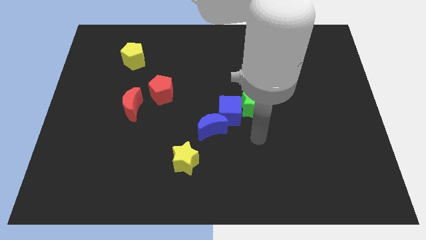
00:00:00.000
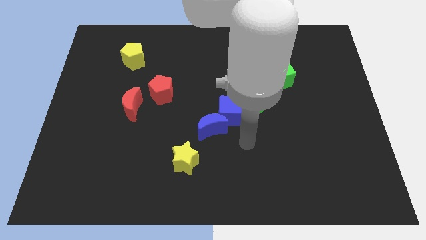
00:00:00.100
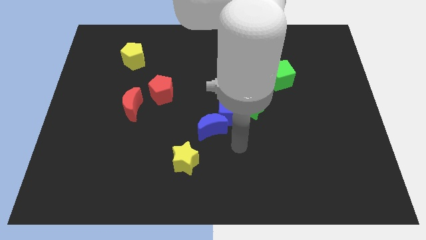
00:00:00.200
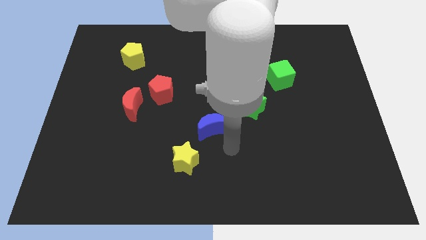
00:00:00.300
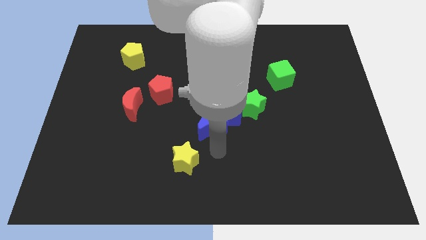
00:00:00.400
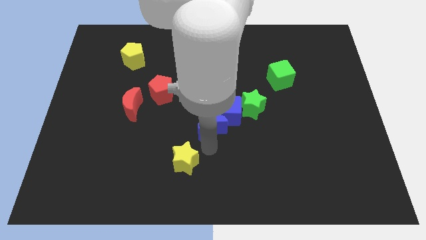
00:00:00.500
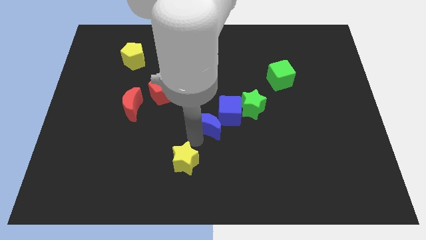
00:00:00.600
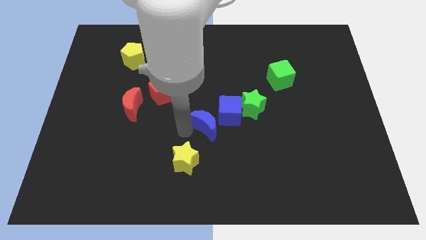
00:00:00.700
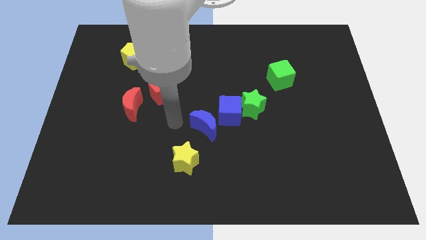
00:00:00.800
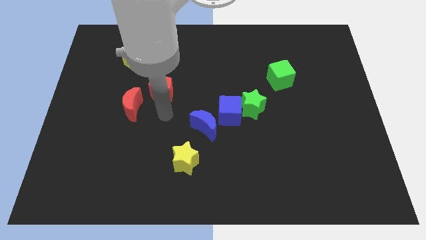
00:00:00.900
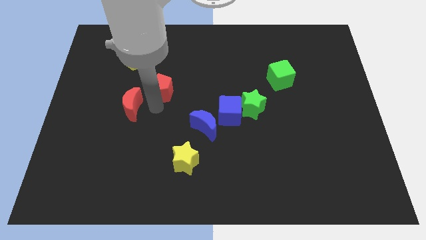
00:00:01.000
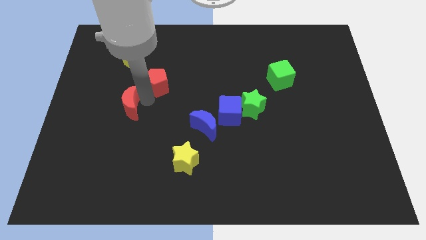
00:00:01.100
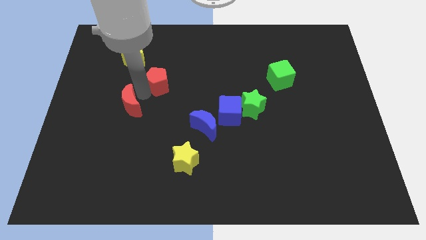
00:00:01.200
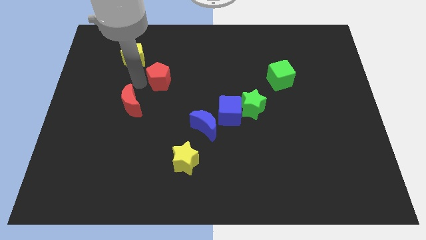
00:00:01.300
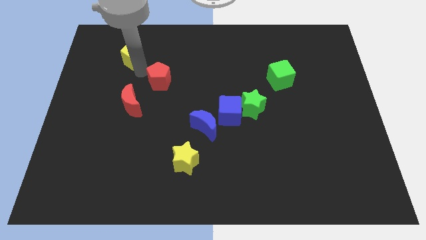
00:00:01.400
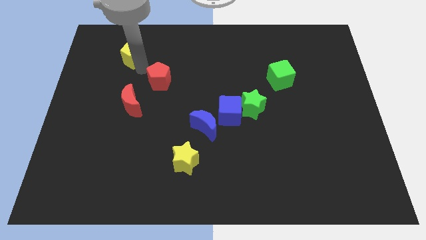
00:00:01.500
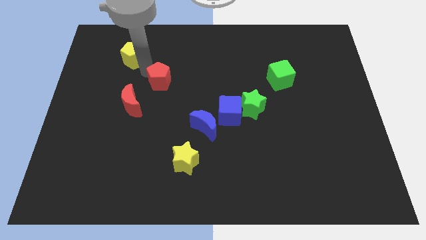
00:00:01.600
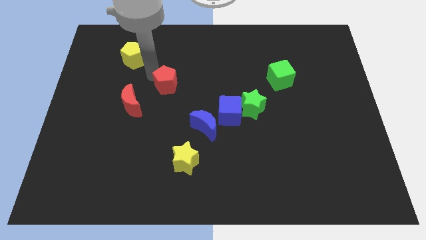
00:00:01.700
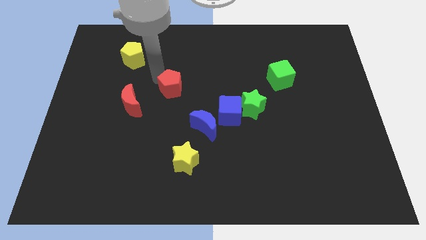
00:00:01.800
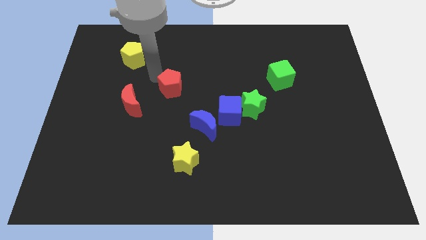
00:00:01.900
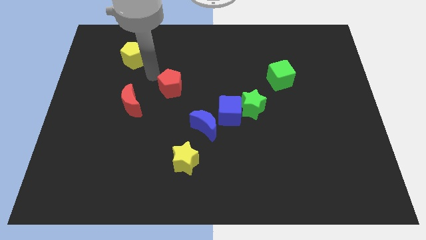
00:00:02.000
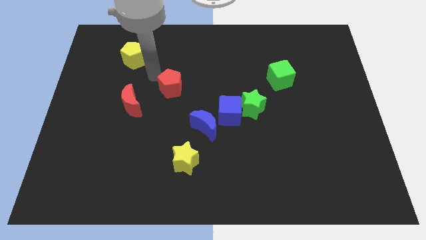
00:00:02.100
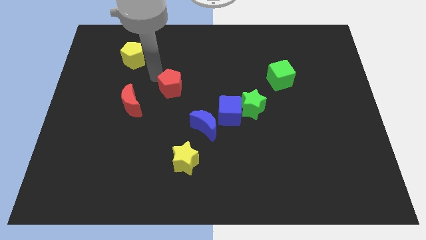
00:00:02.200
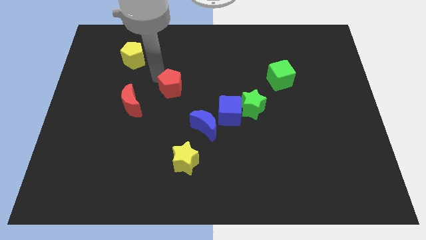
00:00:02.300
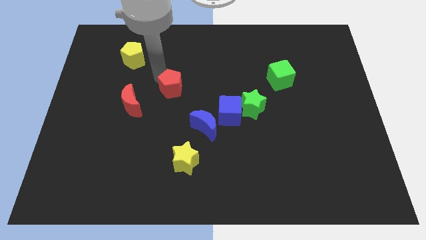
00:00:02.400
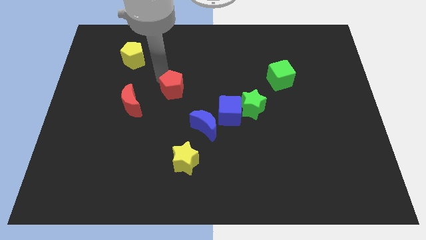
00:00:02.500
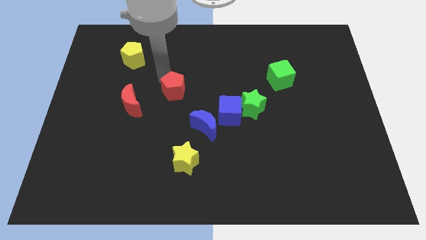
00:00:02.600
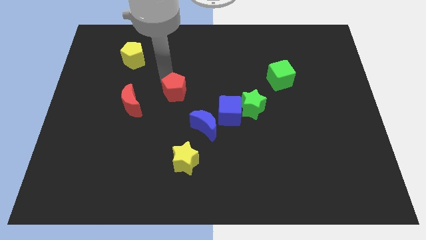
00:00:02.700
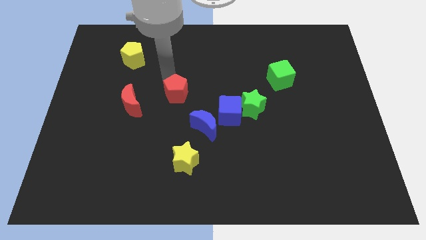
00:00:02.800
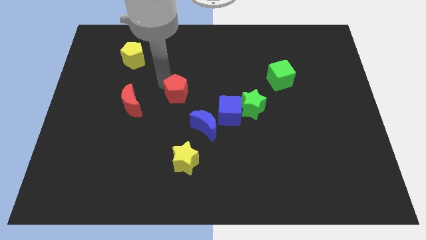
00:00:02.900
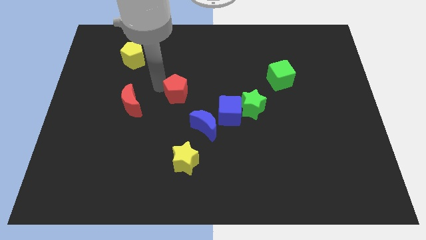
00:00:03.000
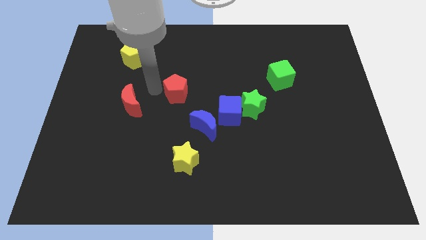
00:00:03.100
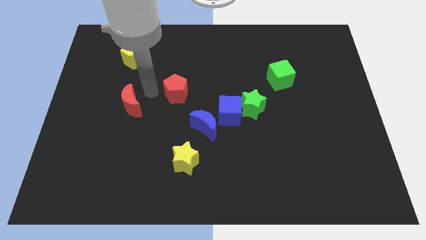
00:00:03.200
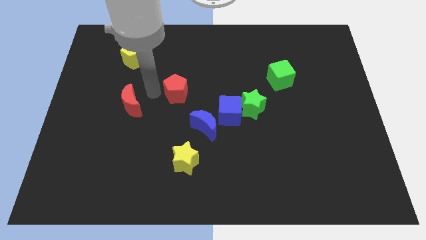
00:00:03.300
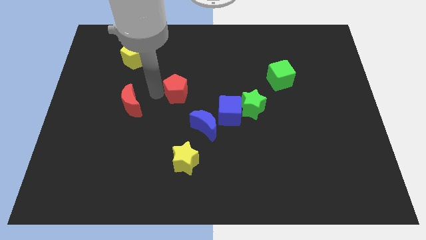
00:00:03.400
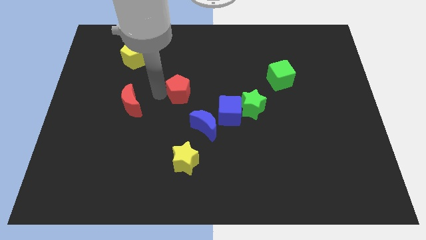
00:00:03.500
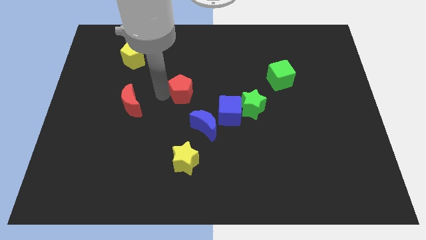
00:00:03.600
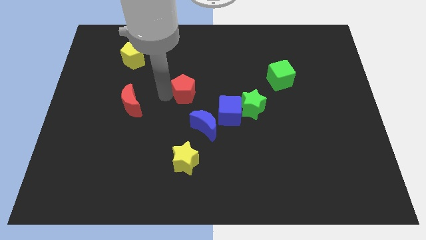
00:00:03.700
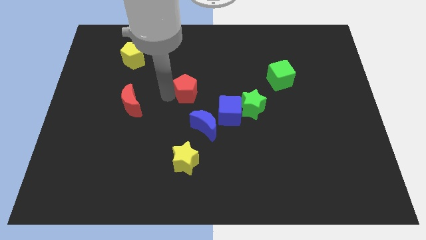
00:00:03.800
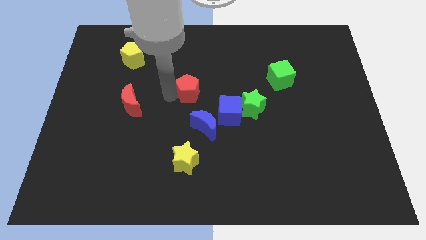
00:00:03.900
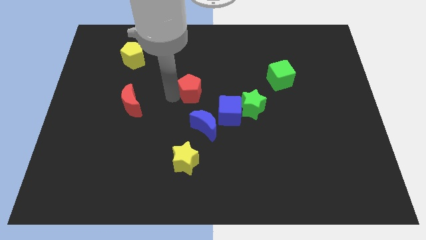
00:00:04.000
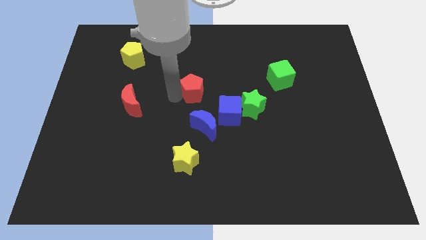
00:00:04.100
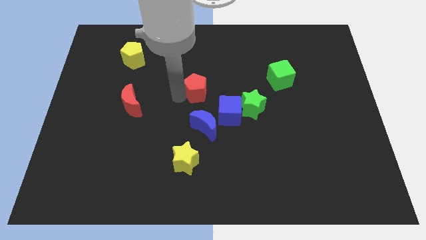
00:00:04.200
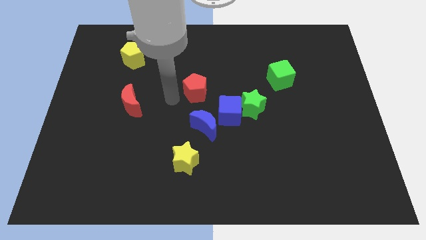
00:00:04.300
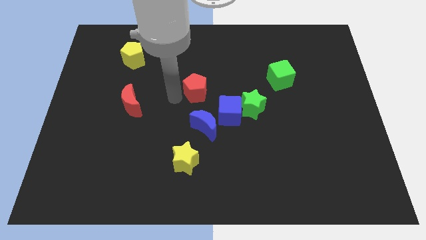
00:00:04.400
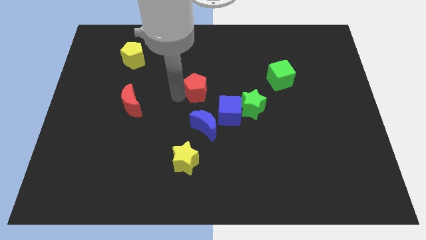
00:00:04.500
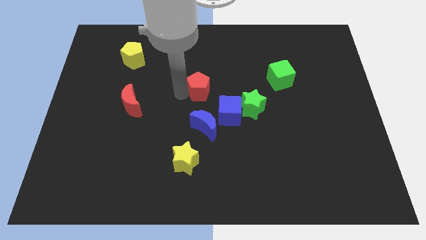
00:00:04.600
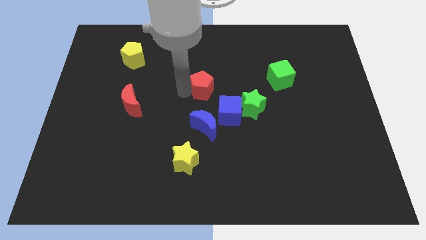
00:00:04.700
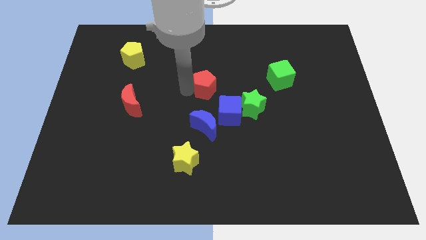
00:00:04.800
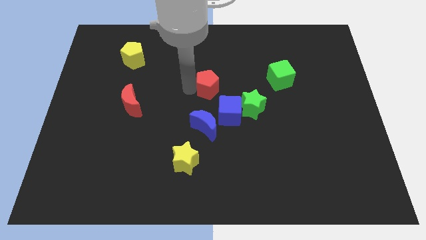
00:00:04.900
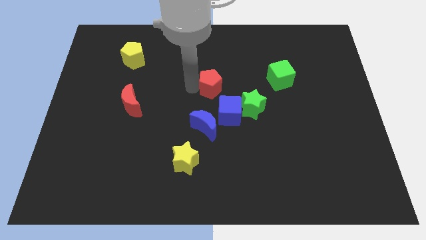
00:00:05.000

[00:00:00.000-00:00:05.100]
push the red pentagon to the top of the blue cube

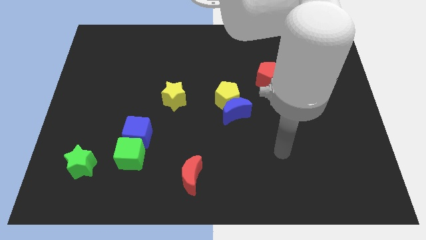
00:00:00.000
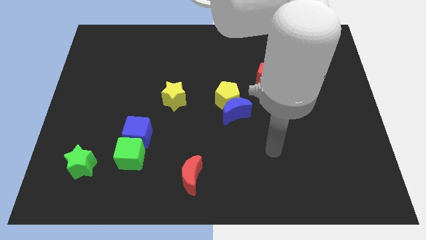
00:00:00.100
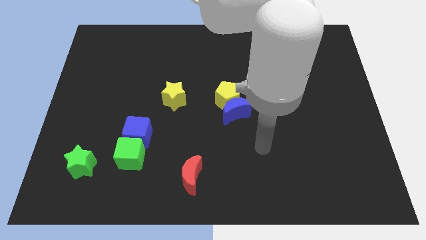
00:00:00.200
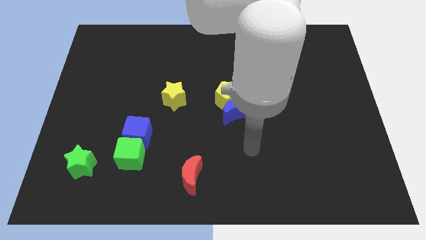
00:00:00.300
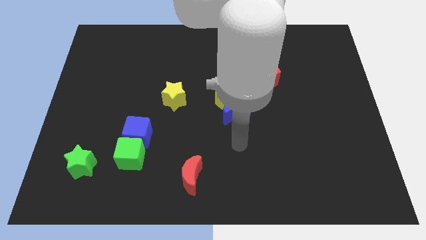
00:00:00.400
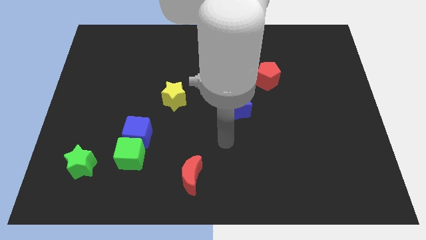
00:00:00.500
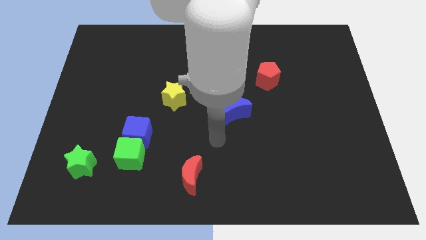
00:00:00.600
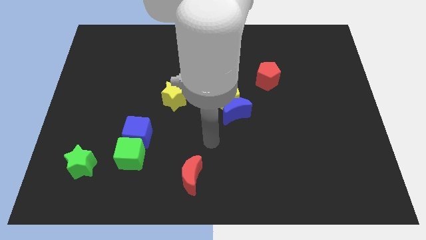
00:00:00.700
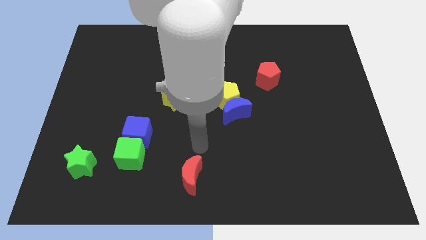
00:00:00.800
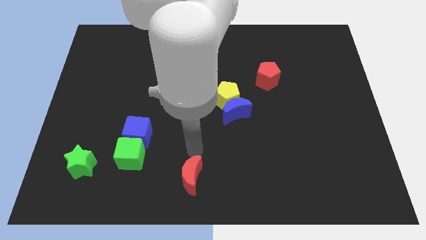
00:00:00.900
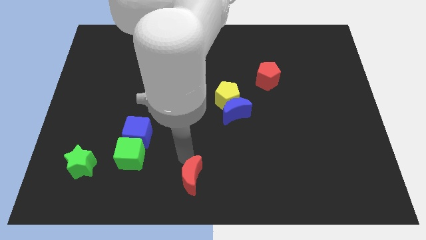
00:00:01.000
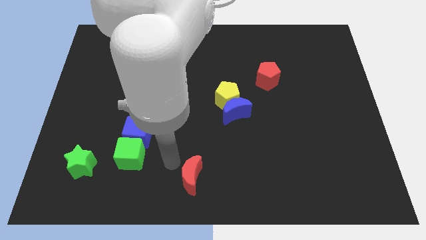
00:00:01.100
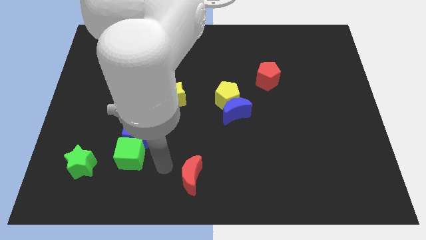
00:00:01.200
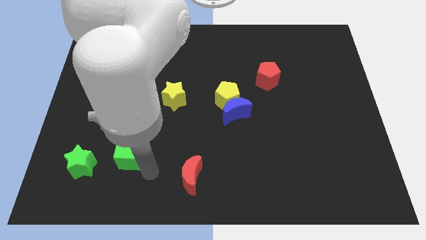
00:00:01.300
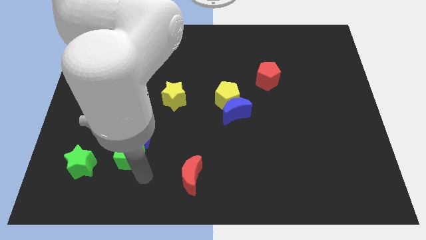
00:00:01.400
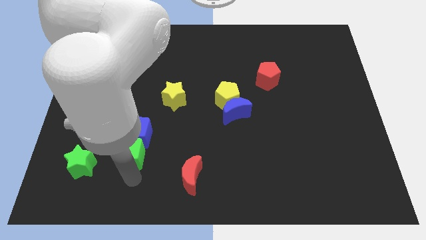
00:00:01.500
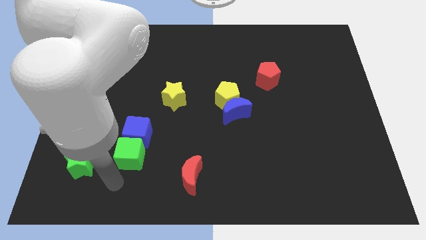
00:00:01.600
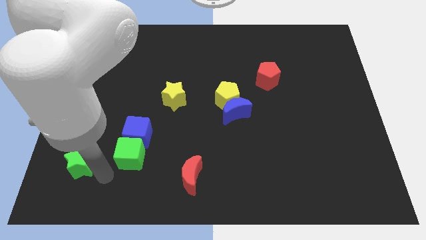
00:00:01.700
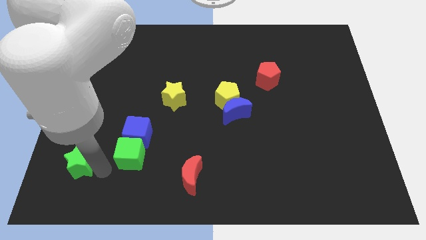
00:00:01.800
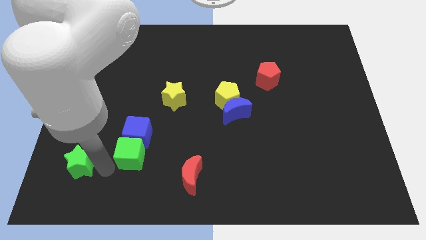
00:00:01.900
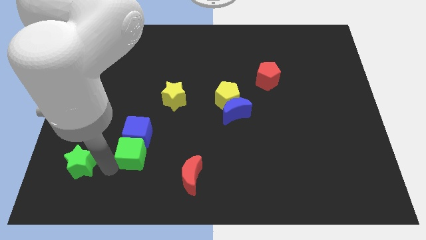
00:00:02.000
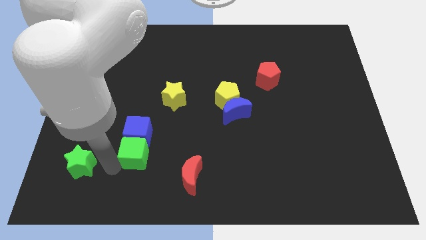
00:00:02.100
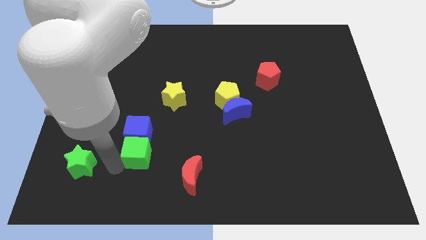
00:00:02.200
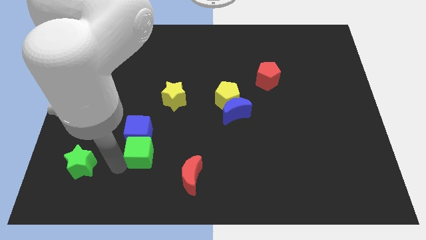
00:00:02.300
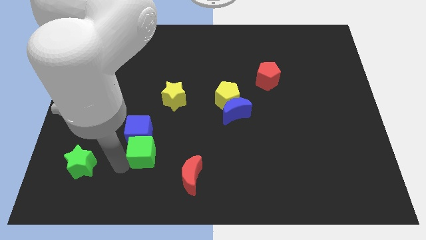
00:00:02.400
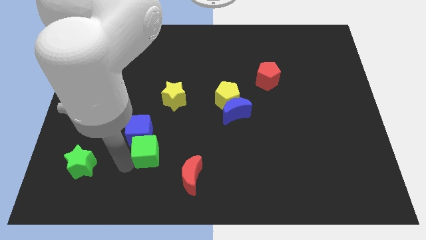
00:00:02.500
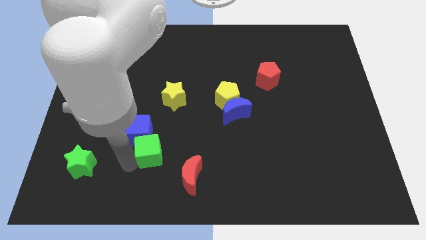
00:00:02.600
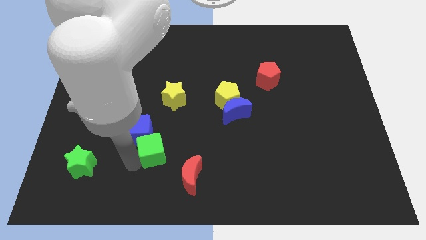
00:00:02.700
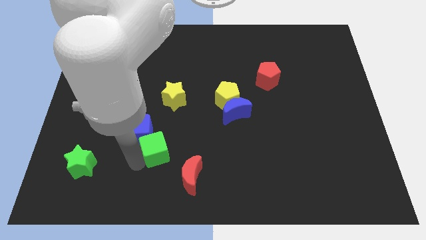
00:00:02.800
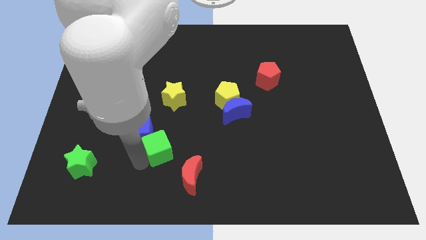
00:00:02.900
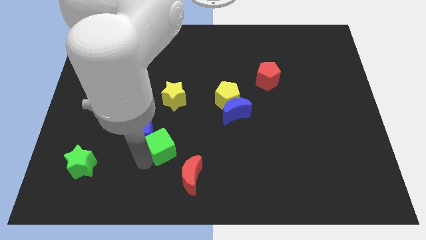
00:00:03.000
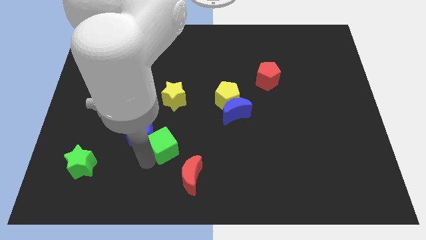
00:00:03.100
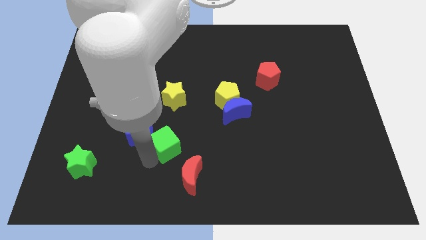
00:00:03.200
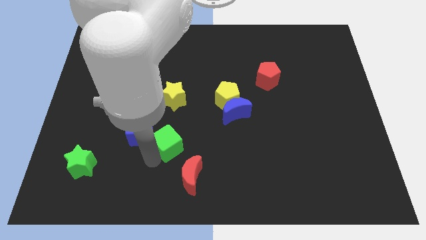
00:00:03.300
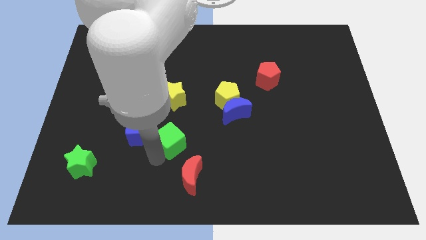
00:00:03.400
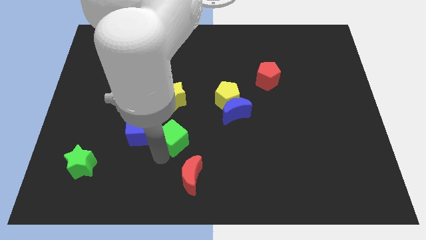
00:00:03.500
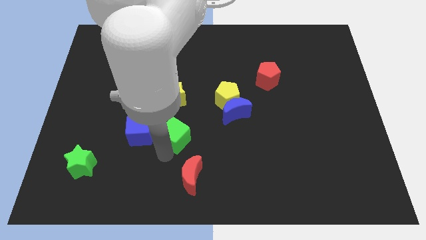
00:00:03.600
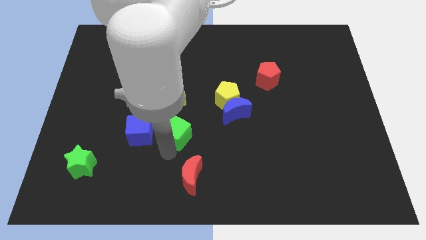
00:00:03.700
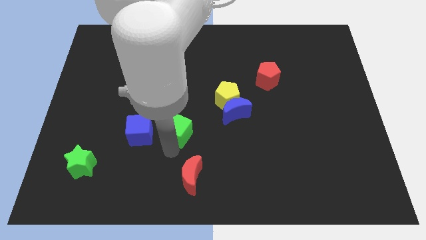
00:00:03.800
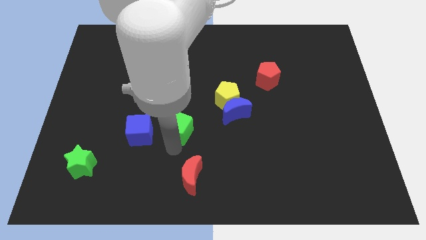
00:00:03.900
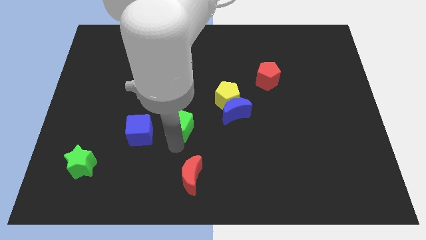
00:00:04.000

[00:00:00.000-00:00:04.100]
slide the green cube left of the blue moon
